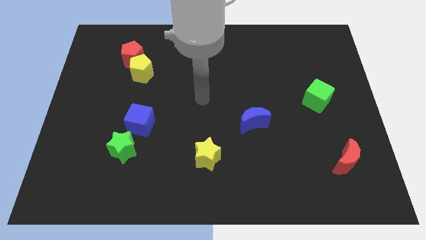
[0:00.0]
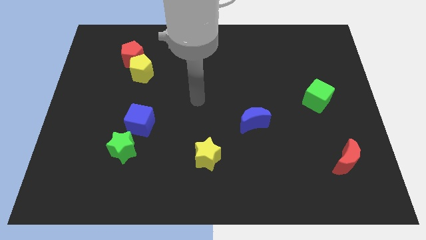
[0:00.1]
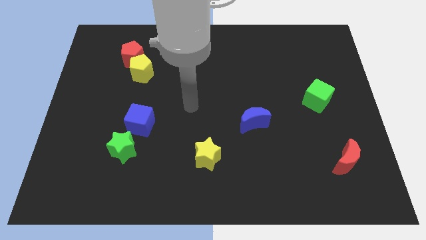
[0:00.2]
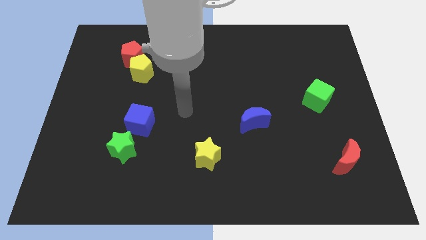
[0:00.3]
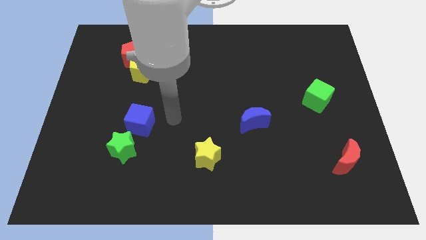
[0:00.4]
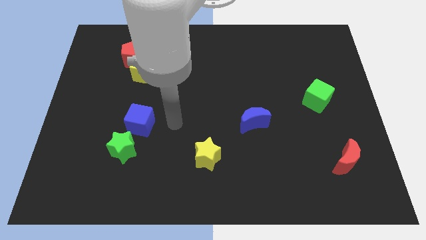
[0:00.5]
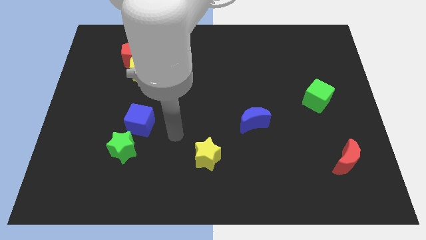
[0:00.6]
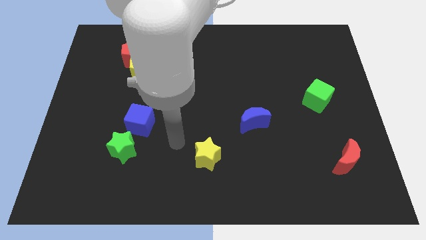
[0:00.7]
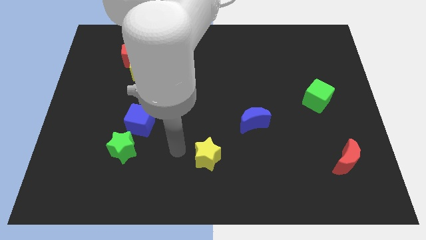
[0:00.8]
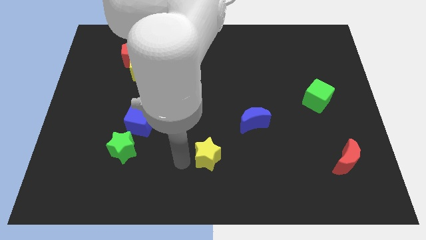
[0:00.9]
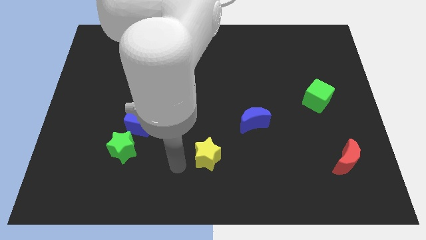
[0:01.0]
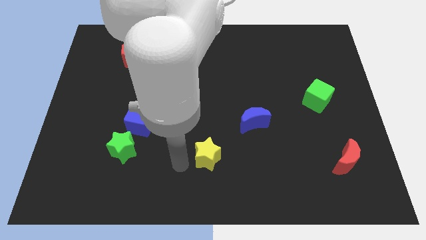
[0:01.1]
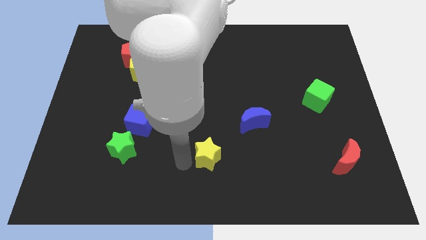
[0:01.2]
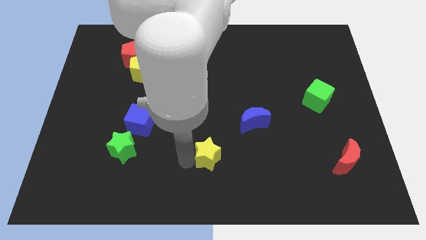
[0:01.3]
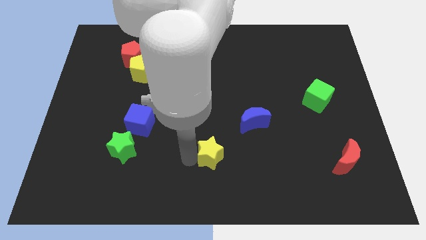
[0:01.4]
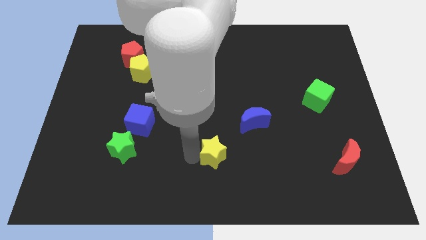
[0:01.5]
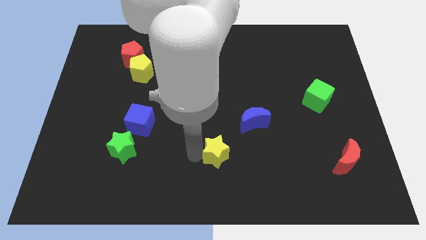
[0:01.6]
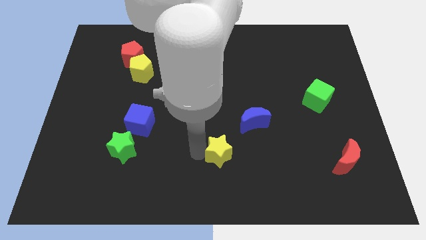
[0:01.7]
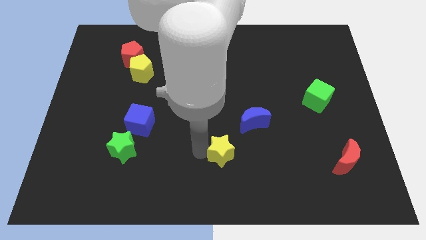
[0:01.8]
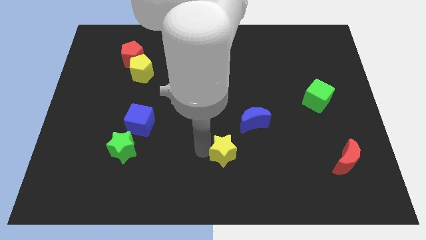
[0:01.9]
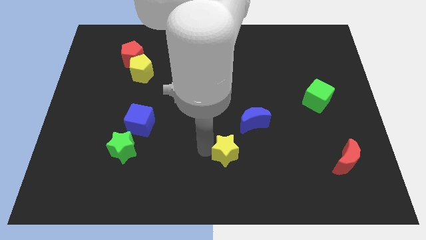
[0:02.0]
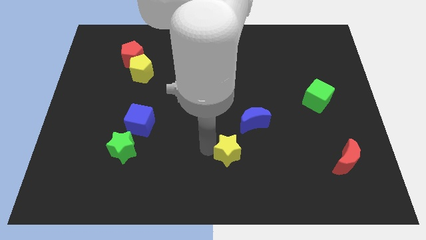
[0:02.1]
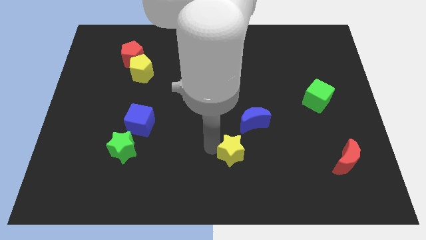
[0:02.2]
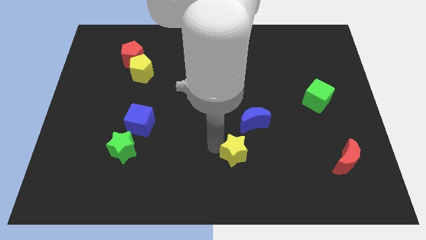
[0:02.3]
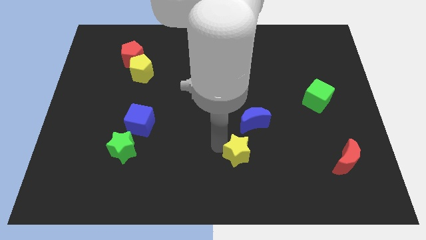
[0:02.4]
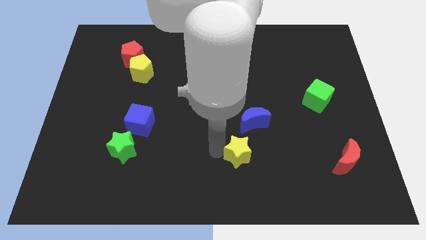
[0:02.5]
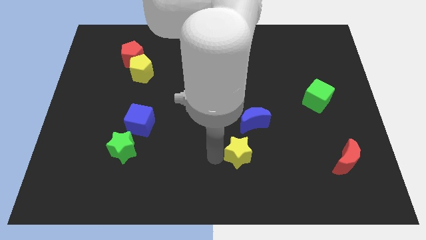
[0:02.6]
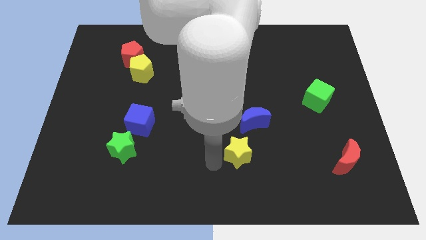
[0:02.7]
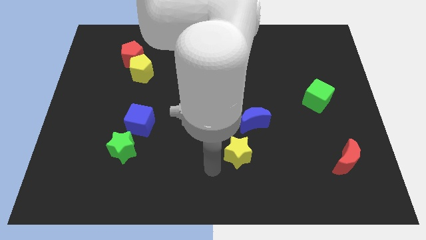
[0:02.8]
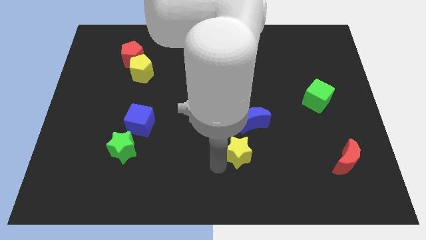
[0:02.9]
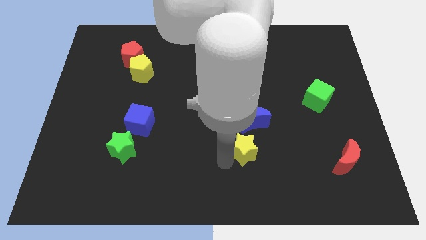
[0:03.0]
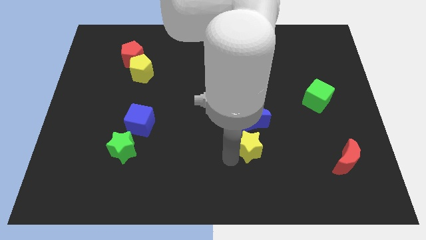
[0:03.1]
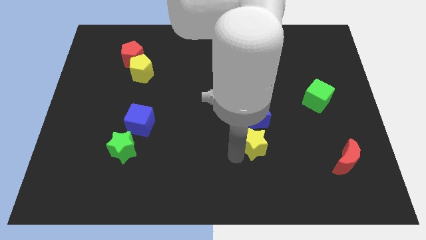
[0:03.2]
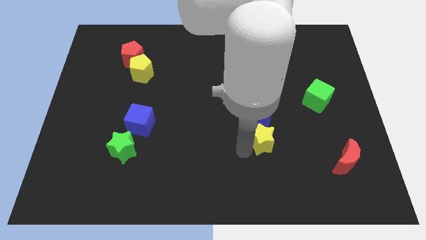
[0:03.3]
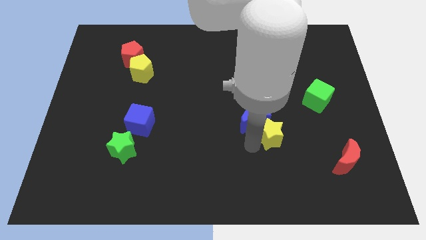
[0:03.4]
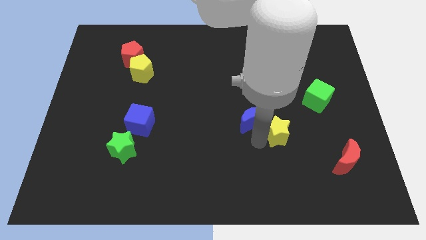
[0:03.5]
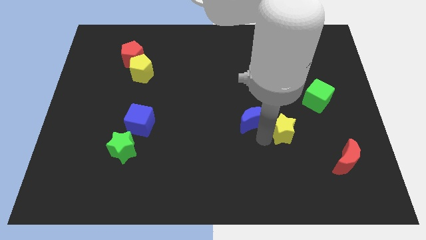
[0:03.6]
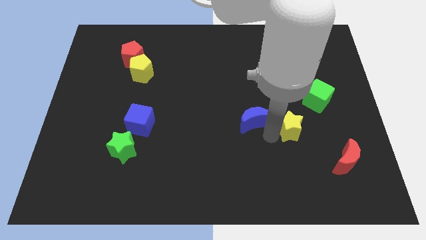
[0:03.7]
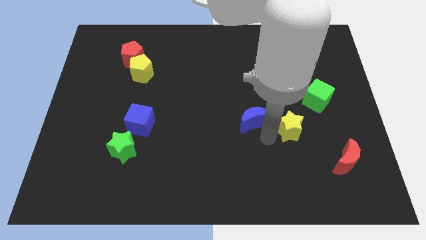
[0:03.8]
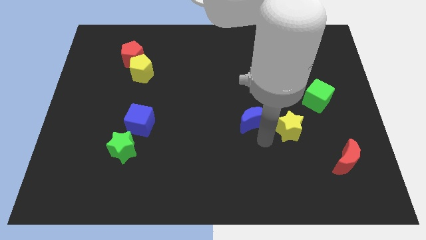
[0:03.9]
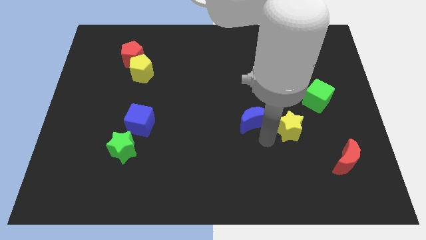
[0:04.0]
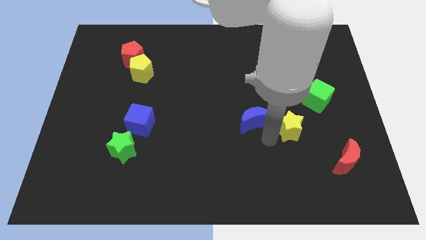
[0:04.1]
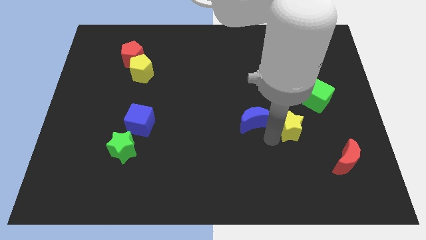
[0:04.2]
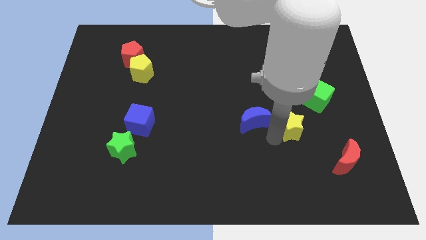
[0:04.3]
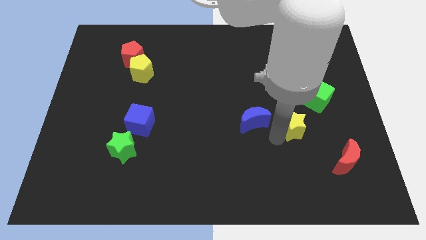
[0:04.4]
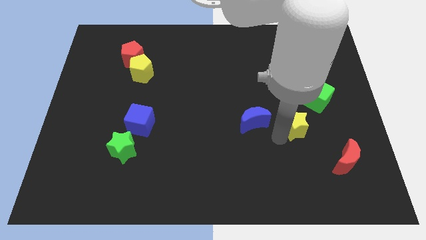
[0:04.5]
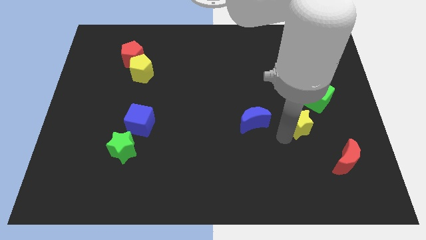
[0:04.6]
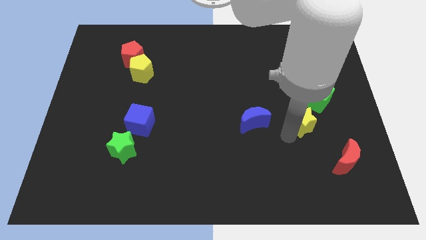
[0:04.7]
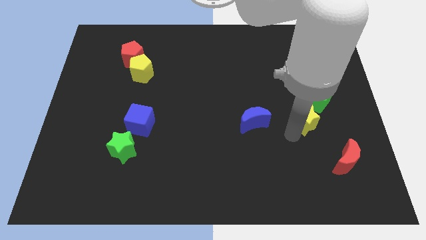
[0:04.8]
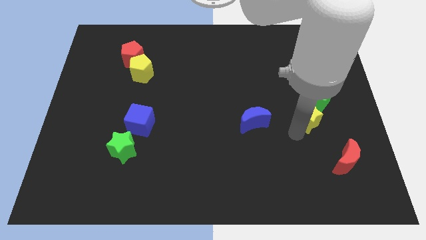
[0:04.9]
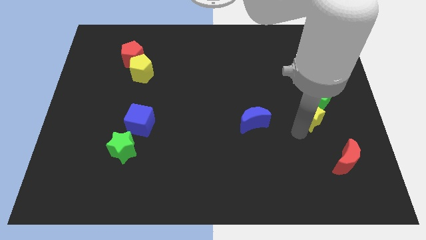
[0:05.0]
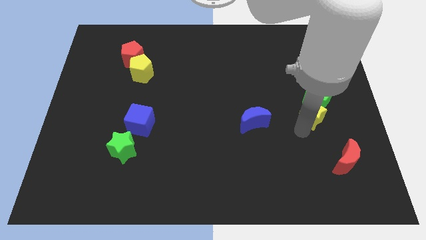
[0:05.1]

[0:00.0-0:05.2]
move the yellow star close to the green cube

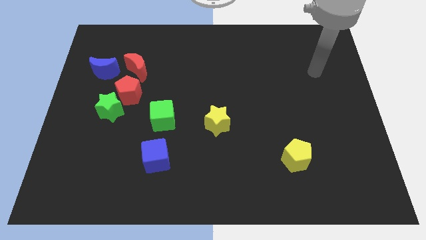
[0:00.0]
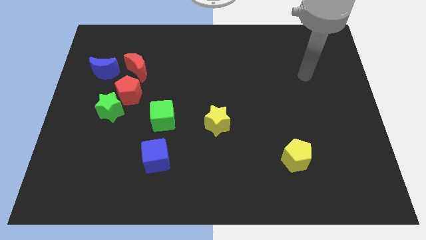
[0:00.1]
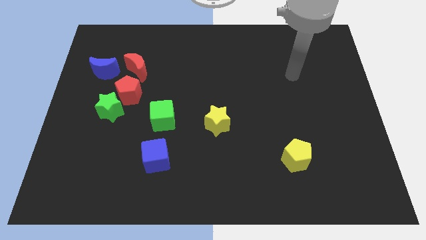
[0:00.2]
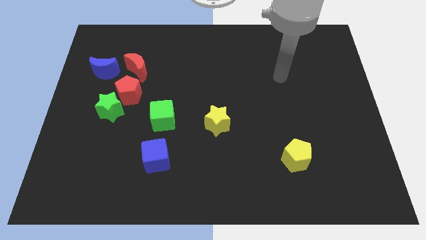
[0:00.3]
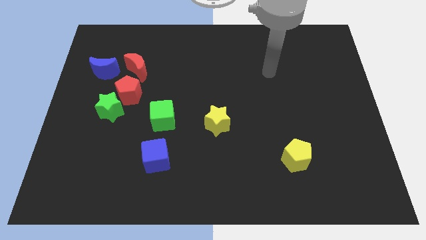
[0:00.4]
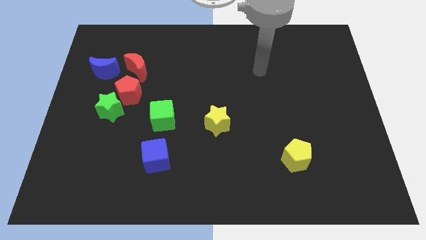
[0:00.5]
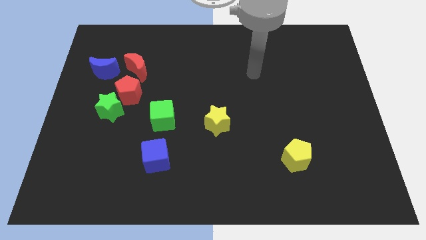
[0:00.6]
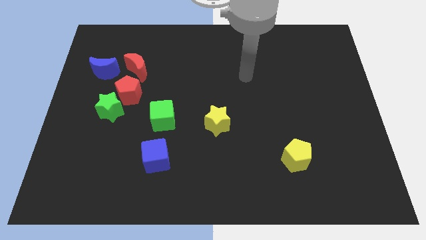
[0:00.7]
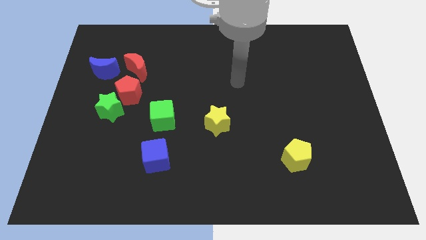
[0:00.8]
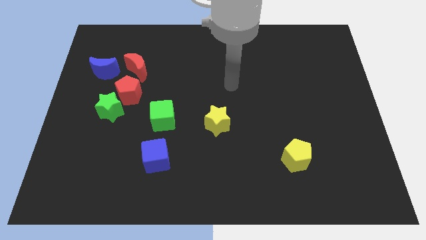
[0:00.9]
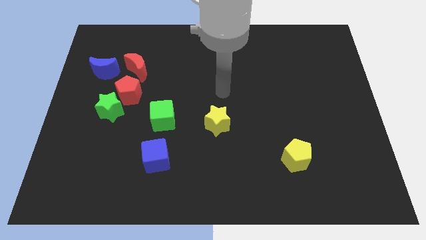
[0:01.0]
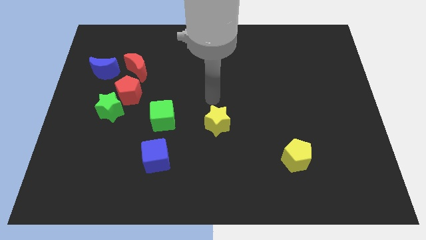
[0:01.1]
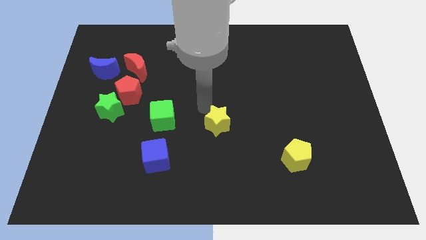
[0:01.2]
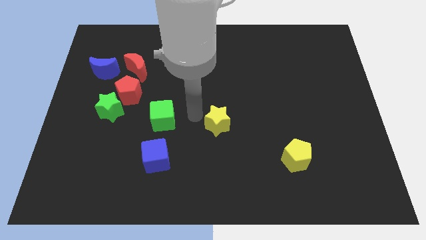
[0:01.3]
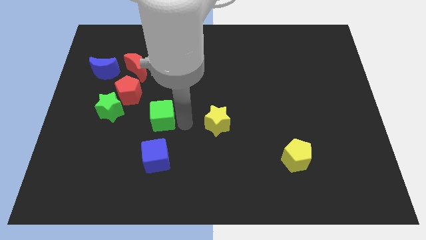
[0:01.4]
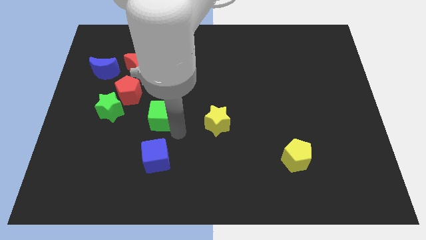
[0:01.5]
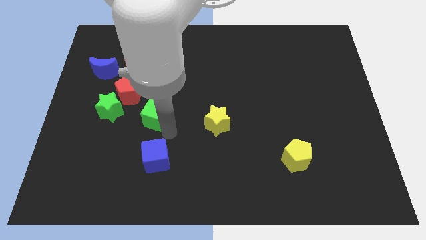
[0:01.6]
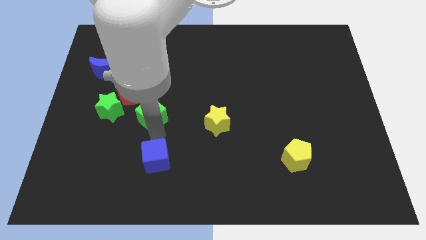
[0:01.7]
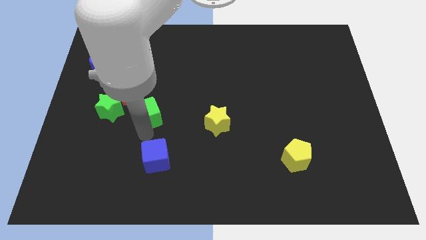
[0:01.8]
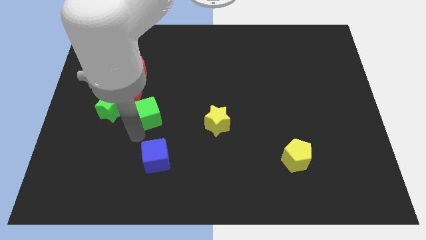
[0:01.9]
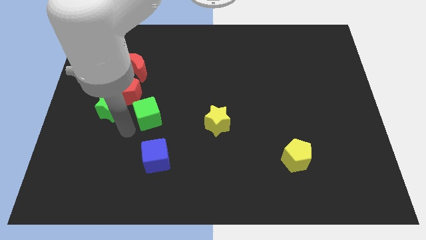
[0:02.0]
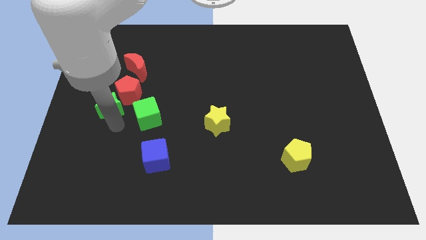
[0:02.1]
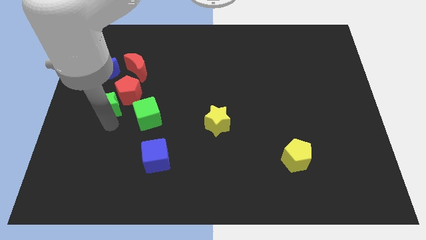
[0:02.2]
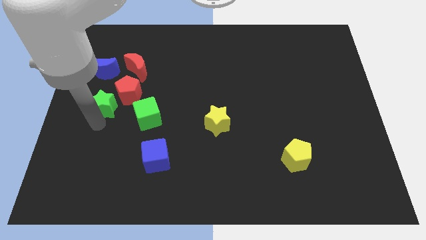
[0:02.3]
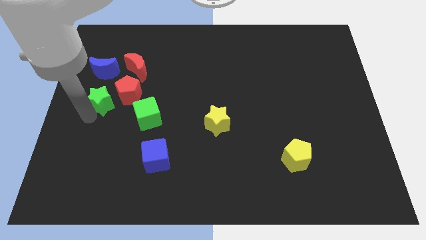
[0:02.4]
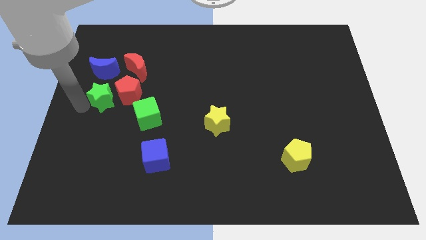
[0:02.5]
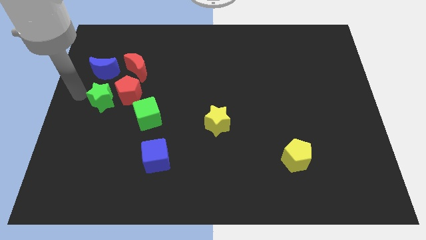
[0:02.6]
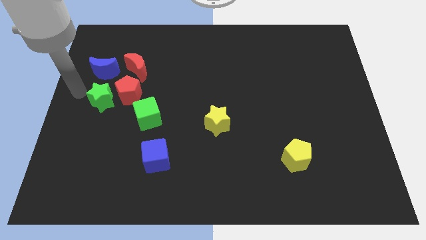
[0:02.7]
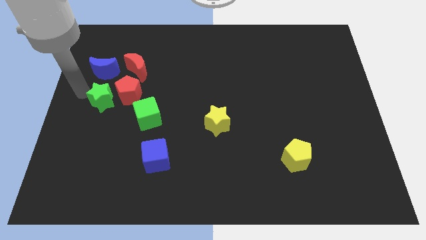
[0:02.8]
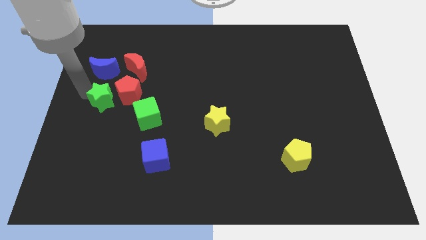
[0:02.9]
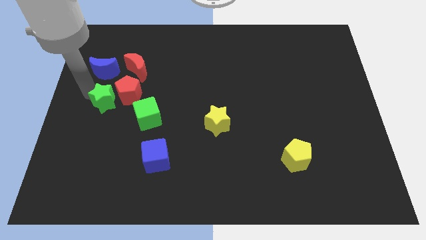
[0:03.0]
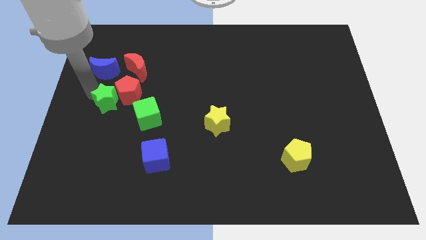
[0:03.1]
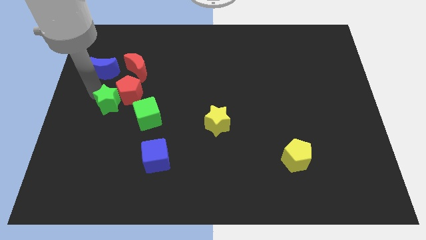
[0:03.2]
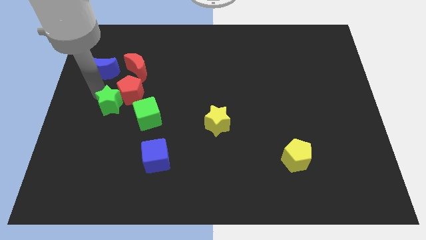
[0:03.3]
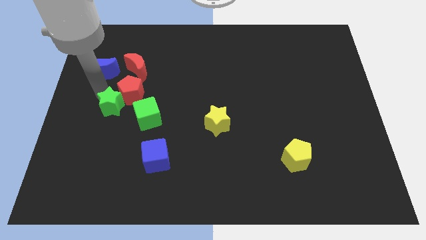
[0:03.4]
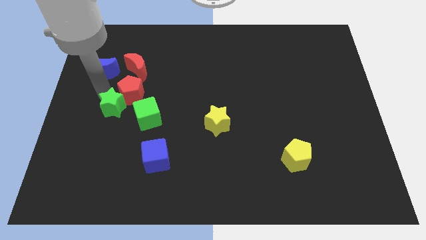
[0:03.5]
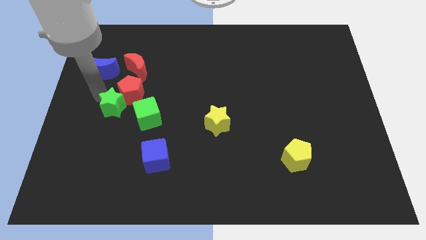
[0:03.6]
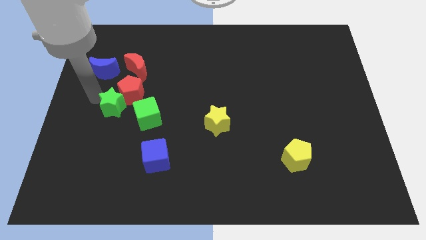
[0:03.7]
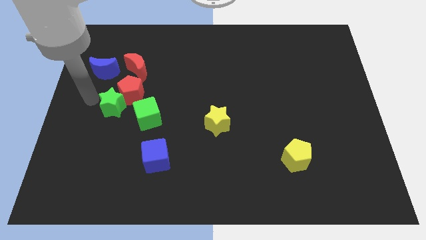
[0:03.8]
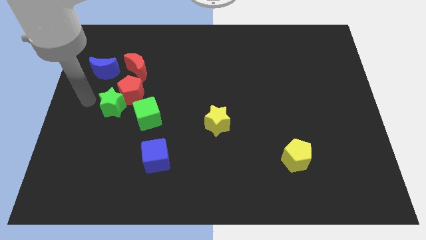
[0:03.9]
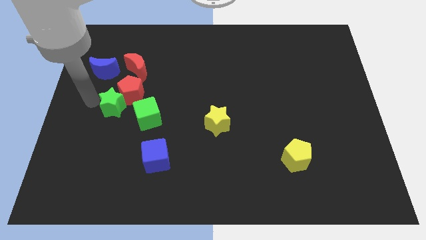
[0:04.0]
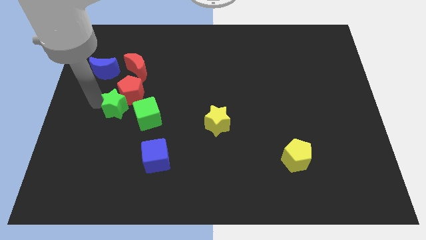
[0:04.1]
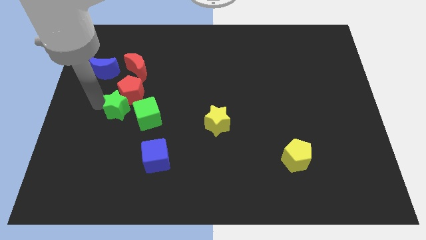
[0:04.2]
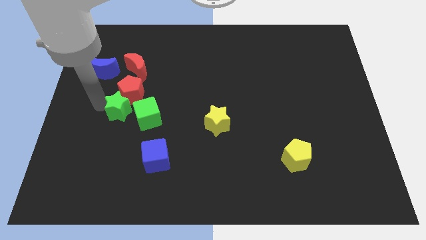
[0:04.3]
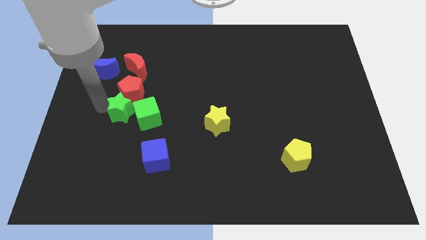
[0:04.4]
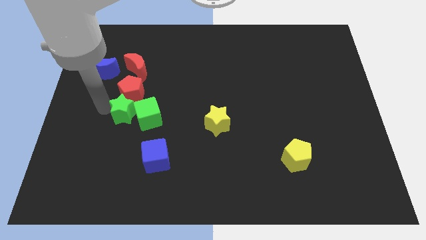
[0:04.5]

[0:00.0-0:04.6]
put the green star towards the green cube
